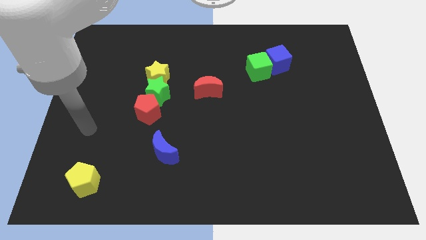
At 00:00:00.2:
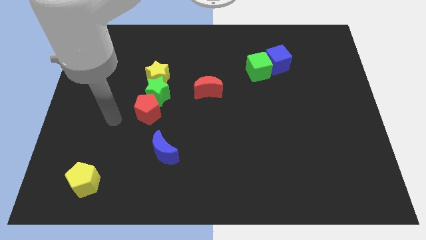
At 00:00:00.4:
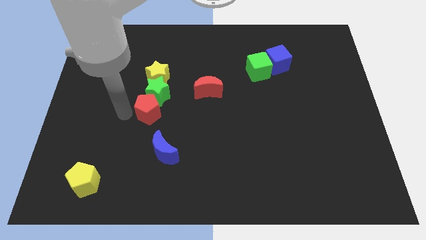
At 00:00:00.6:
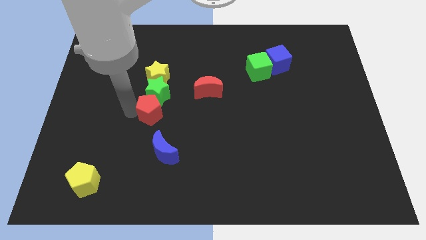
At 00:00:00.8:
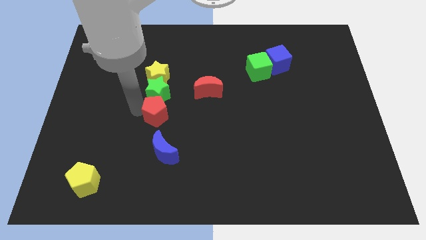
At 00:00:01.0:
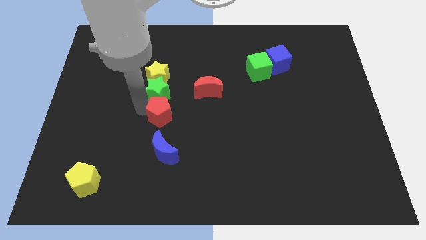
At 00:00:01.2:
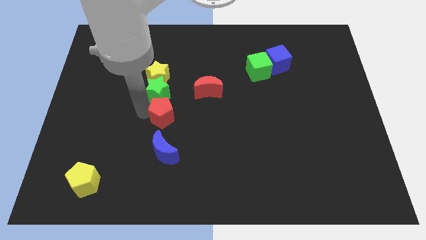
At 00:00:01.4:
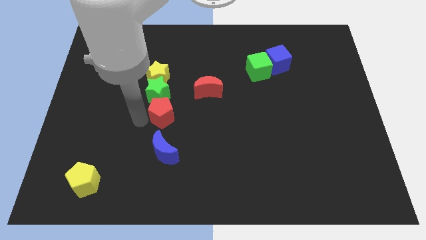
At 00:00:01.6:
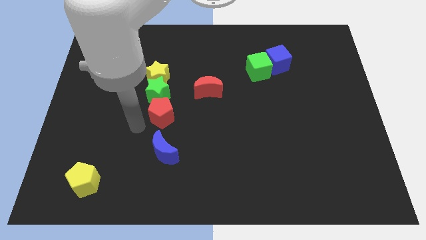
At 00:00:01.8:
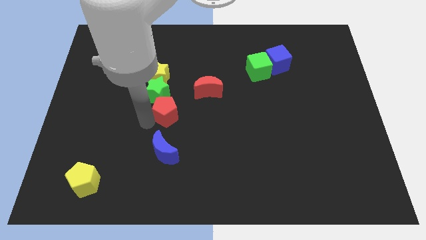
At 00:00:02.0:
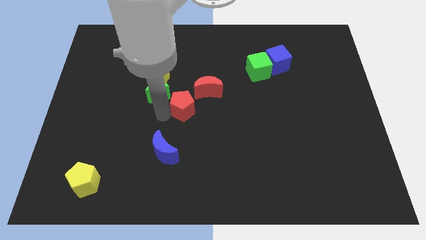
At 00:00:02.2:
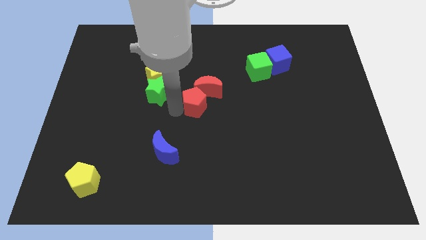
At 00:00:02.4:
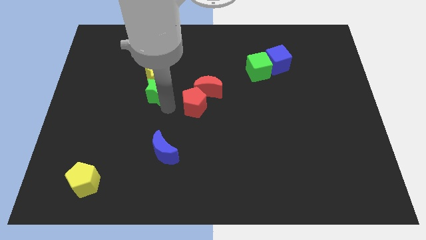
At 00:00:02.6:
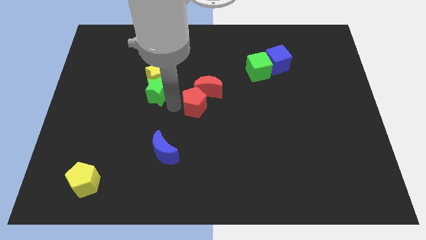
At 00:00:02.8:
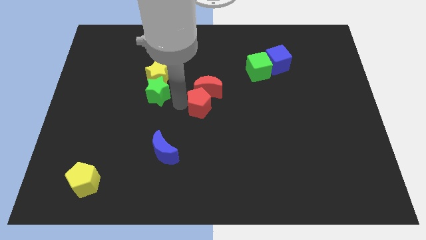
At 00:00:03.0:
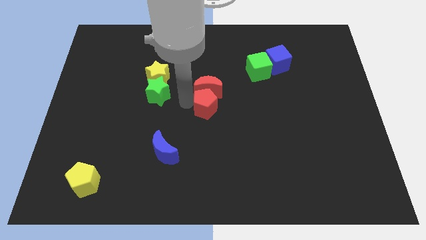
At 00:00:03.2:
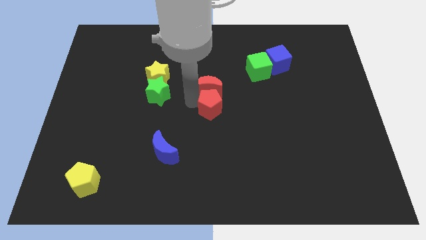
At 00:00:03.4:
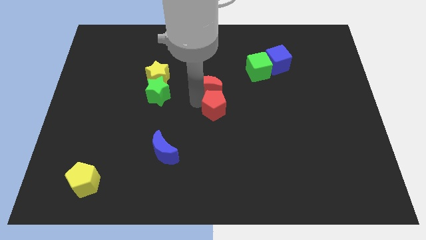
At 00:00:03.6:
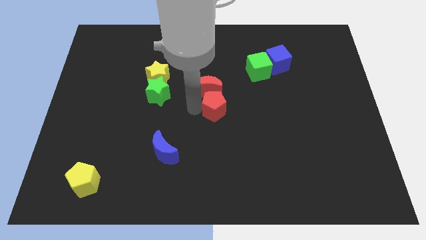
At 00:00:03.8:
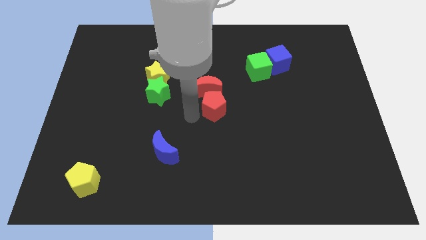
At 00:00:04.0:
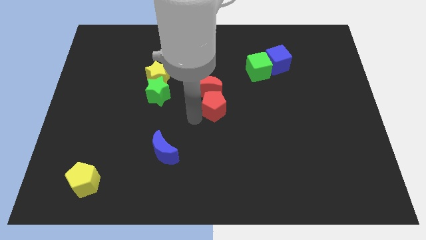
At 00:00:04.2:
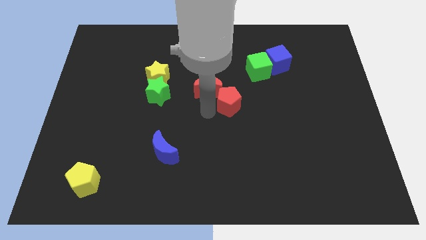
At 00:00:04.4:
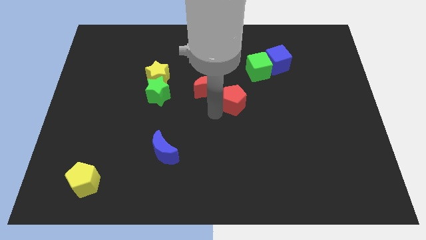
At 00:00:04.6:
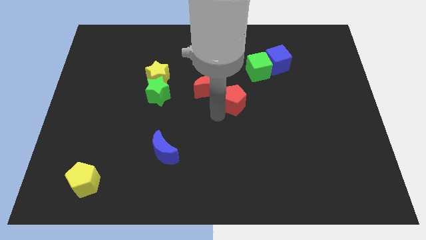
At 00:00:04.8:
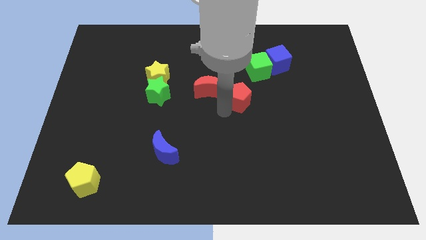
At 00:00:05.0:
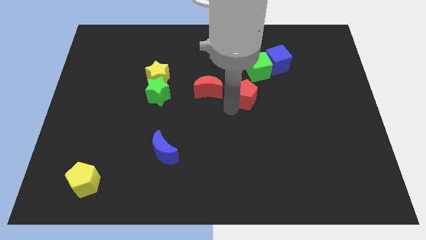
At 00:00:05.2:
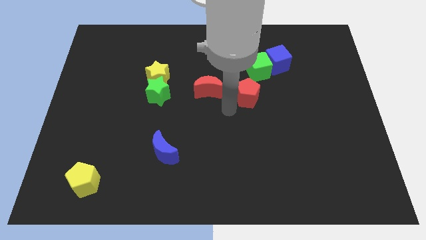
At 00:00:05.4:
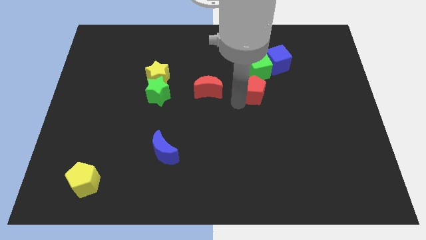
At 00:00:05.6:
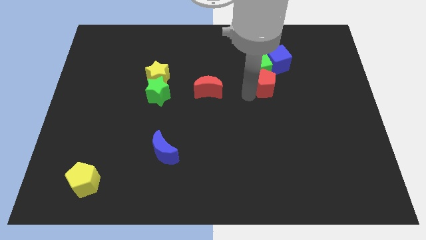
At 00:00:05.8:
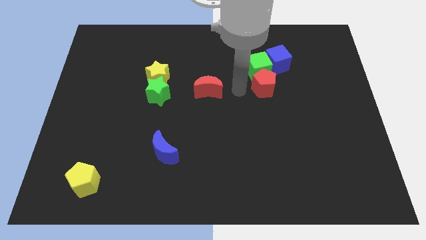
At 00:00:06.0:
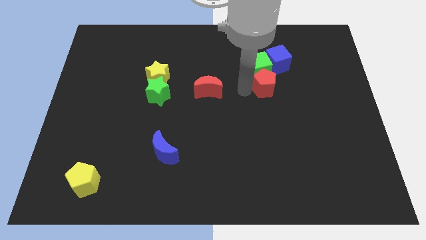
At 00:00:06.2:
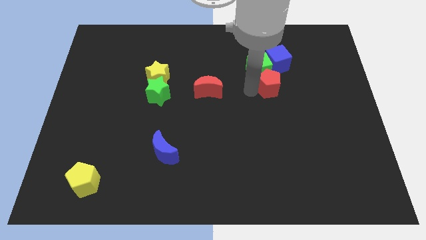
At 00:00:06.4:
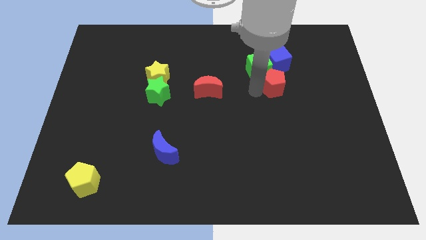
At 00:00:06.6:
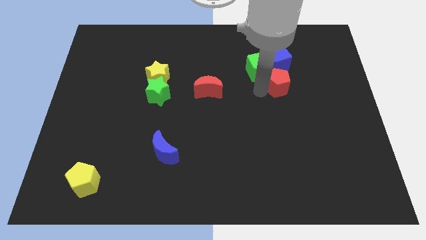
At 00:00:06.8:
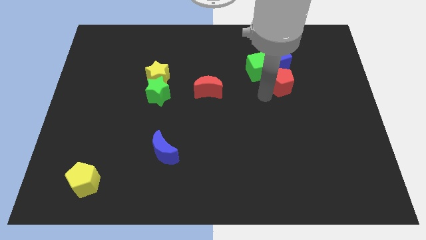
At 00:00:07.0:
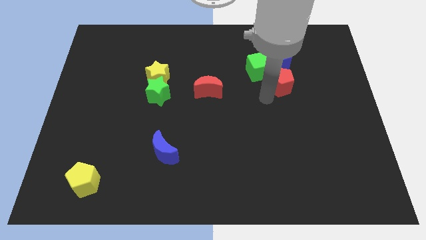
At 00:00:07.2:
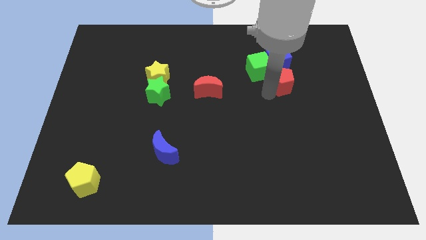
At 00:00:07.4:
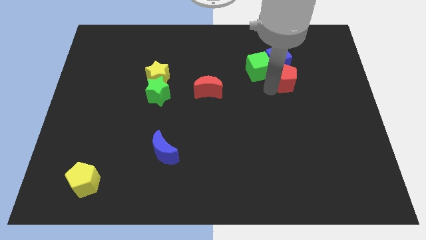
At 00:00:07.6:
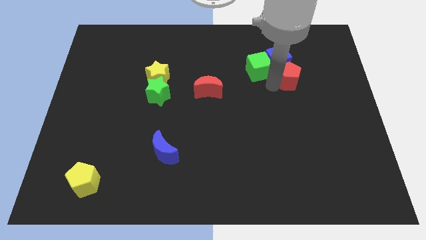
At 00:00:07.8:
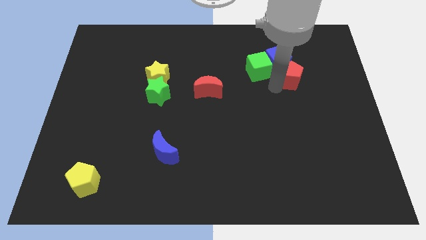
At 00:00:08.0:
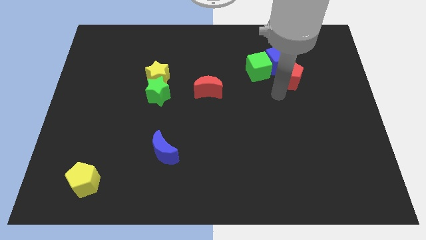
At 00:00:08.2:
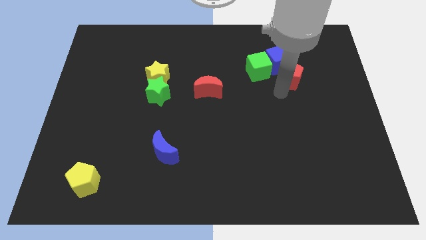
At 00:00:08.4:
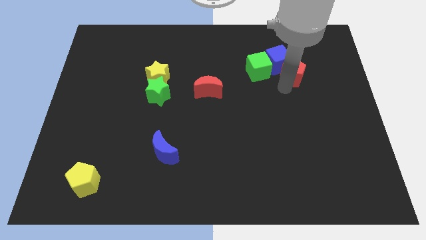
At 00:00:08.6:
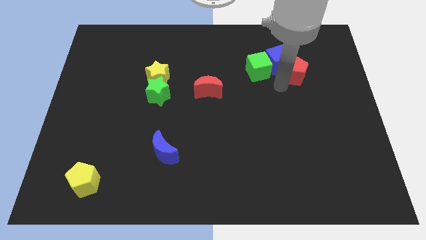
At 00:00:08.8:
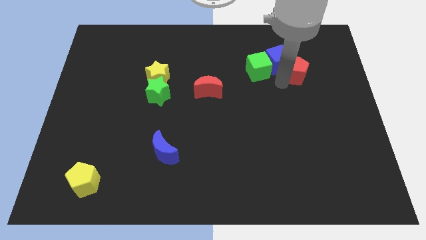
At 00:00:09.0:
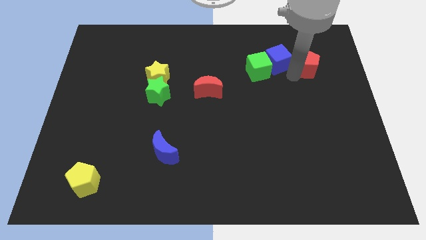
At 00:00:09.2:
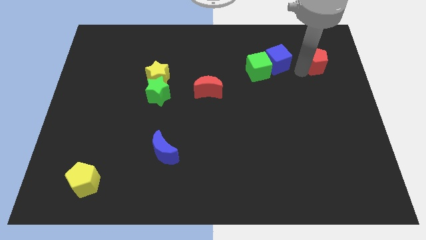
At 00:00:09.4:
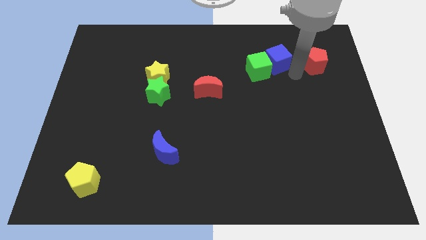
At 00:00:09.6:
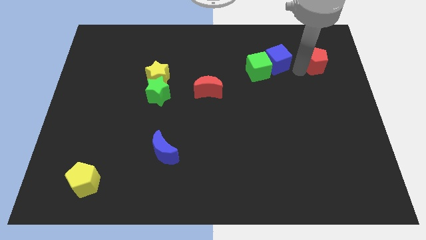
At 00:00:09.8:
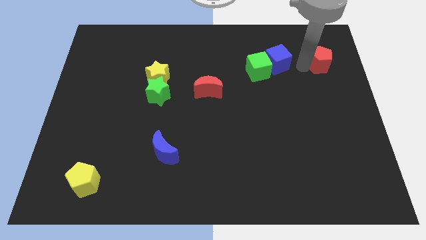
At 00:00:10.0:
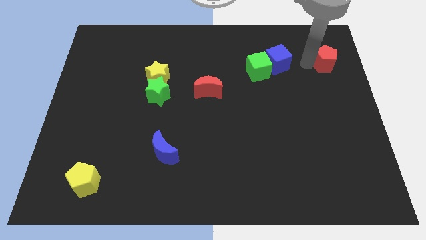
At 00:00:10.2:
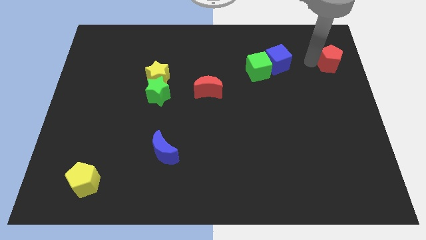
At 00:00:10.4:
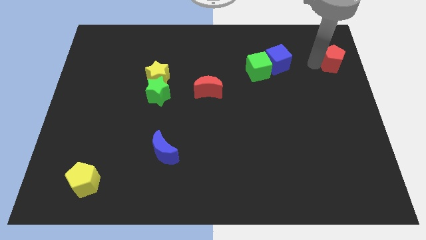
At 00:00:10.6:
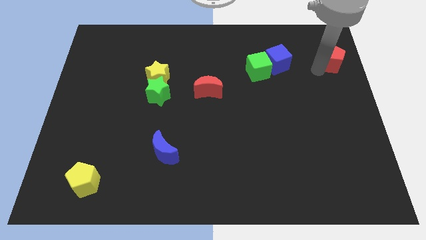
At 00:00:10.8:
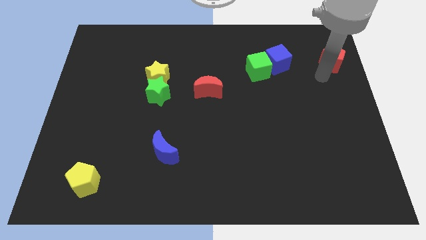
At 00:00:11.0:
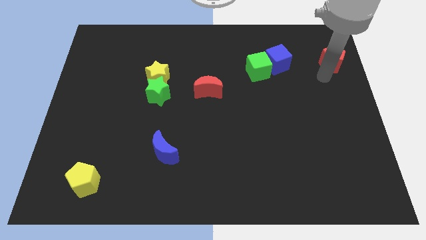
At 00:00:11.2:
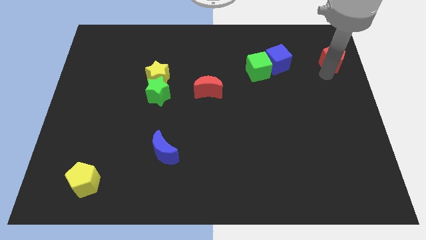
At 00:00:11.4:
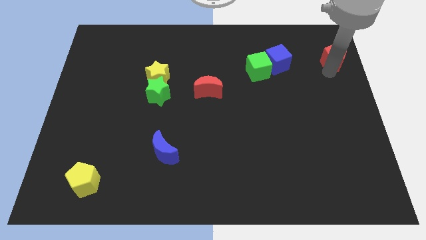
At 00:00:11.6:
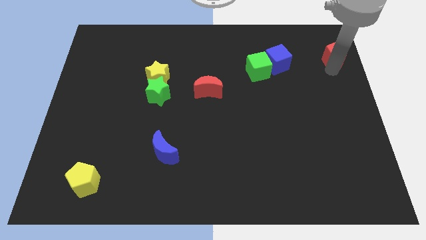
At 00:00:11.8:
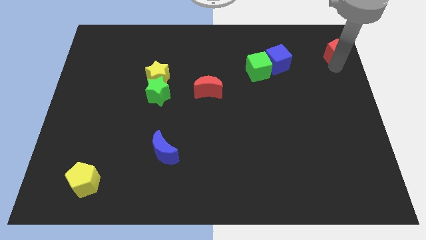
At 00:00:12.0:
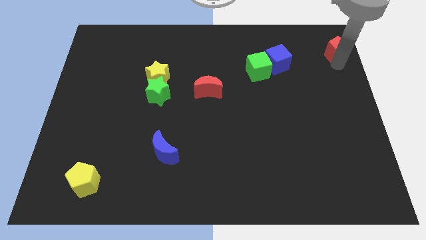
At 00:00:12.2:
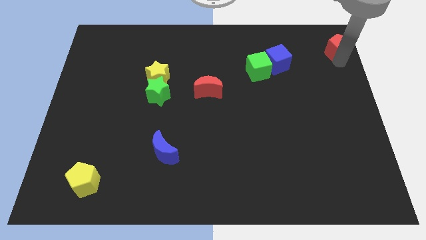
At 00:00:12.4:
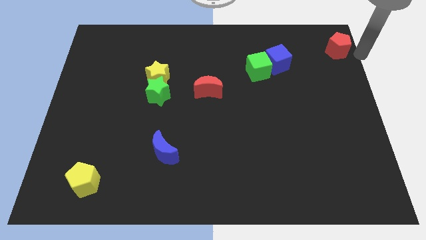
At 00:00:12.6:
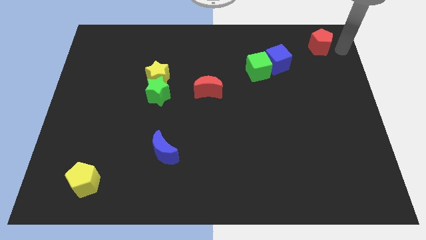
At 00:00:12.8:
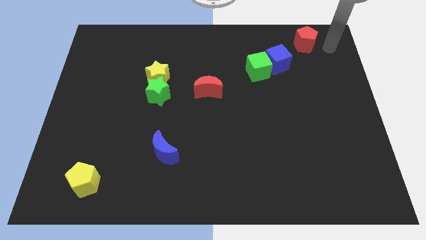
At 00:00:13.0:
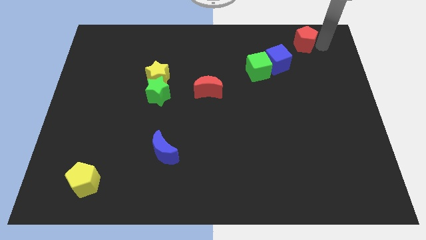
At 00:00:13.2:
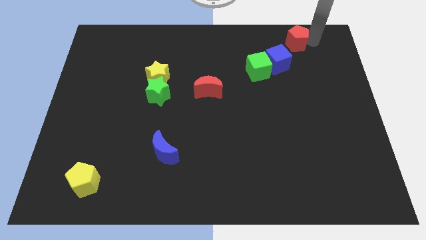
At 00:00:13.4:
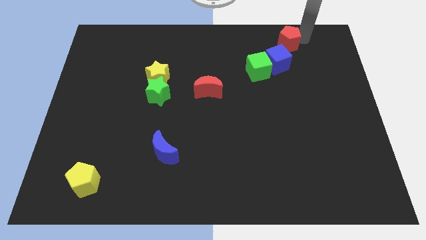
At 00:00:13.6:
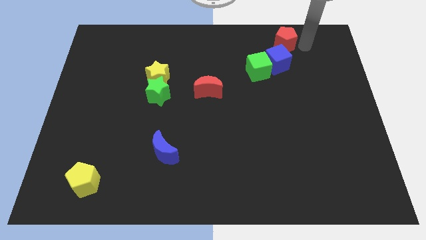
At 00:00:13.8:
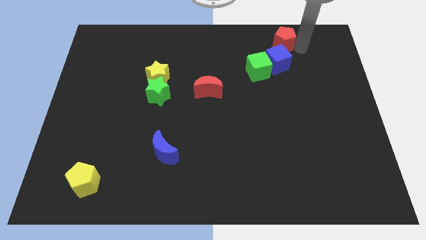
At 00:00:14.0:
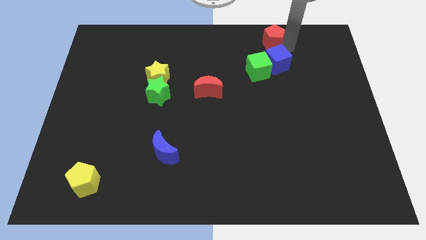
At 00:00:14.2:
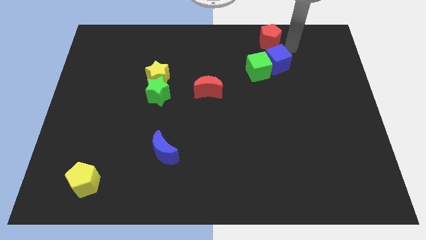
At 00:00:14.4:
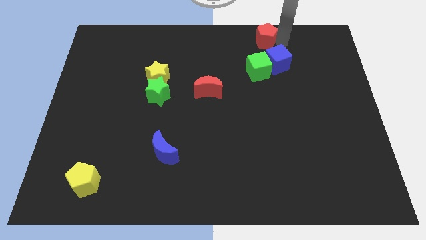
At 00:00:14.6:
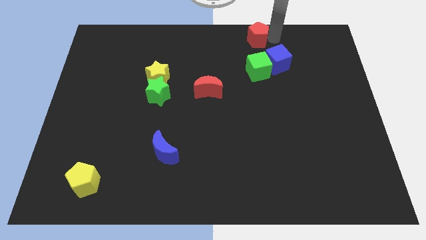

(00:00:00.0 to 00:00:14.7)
move the red pentagon to the top
